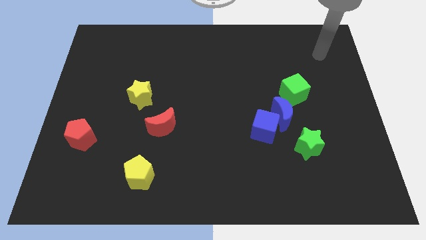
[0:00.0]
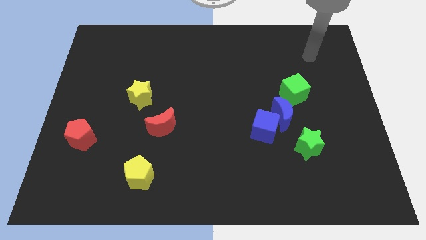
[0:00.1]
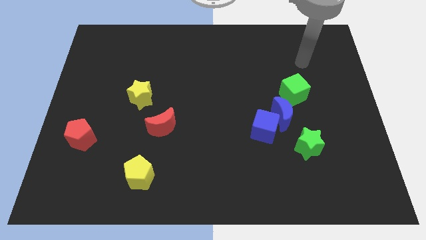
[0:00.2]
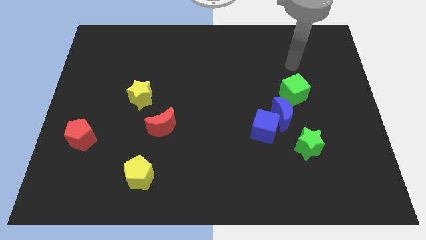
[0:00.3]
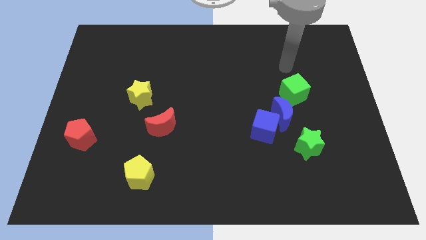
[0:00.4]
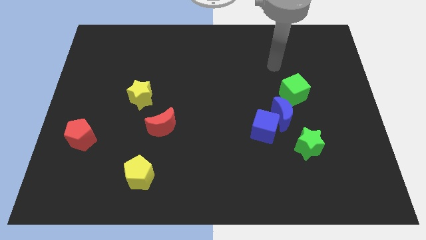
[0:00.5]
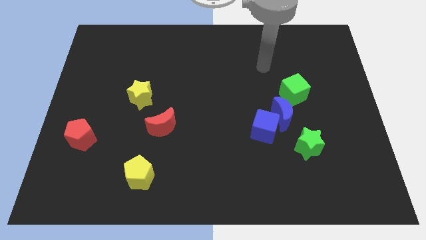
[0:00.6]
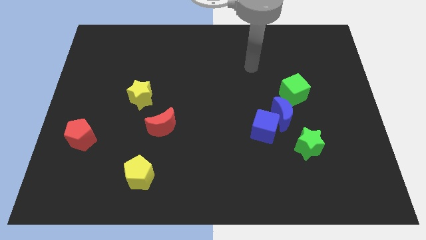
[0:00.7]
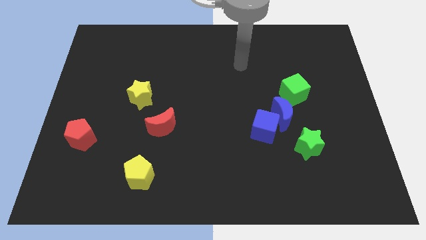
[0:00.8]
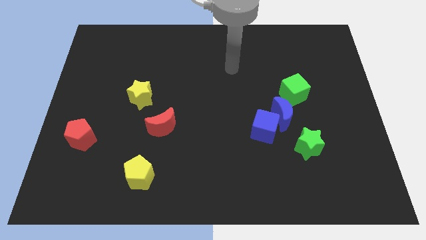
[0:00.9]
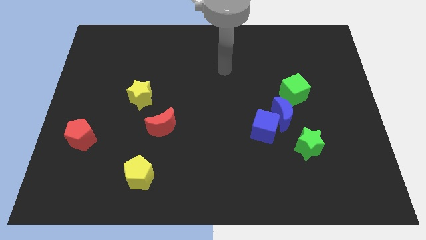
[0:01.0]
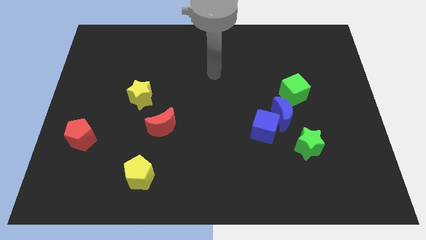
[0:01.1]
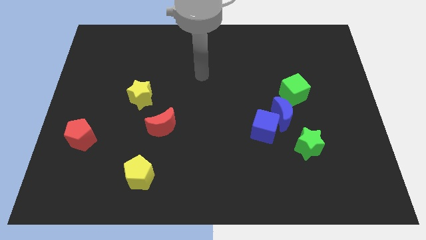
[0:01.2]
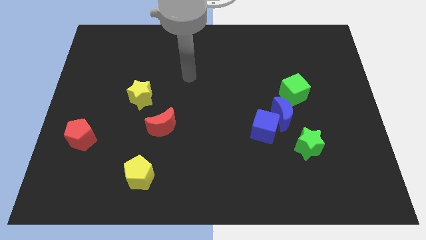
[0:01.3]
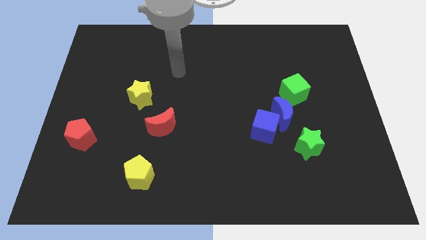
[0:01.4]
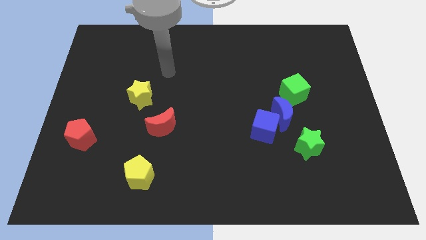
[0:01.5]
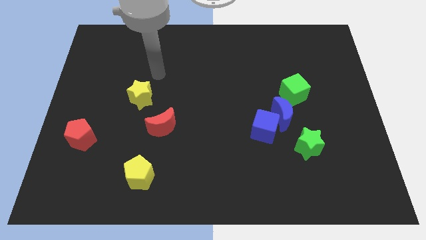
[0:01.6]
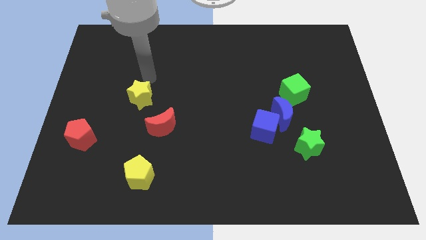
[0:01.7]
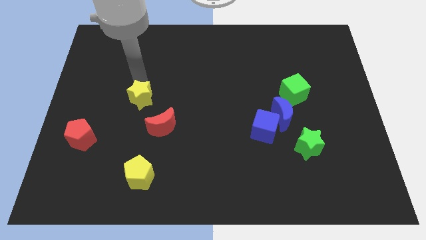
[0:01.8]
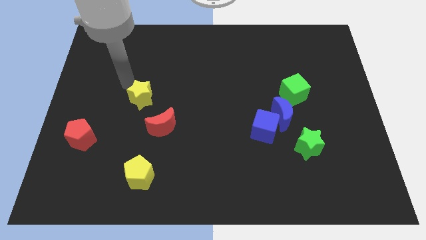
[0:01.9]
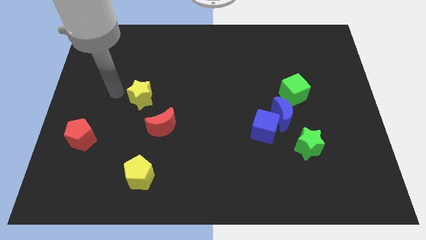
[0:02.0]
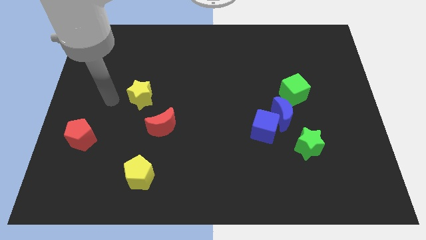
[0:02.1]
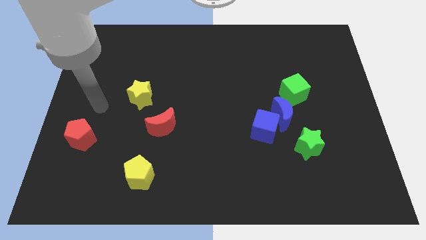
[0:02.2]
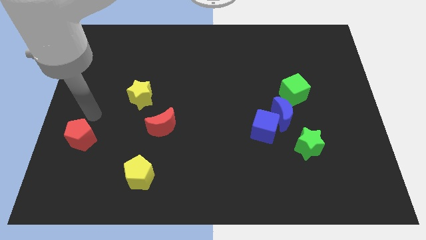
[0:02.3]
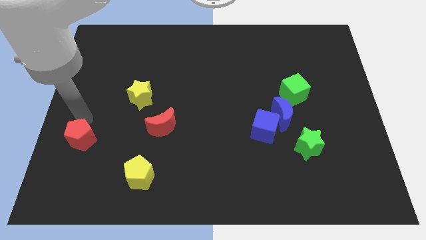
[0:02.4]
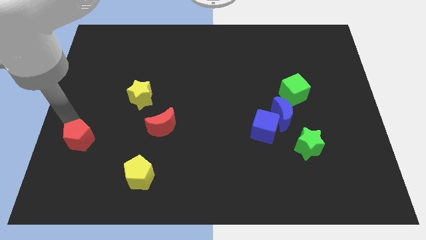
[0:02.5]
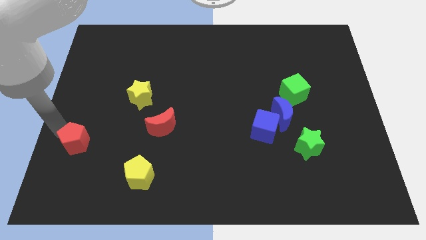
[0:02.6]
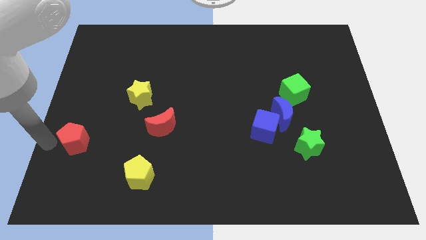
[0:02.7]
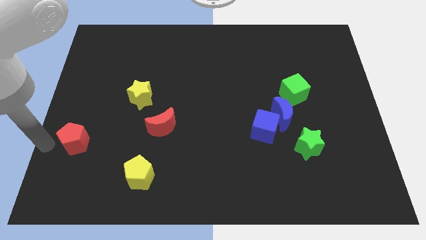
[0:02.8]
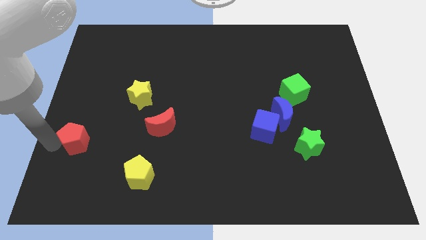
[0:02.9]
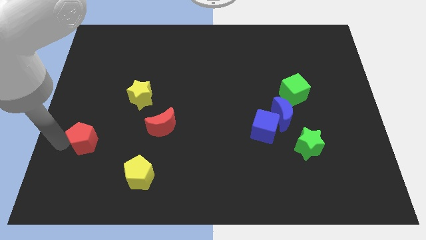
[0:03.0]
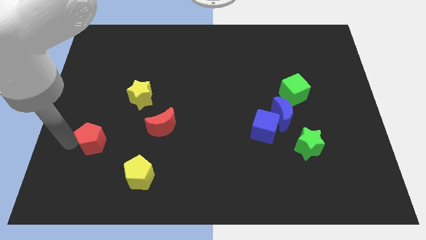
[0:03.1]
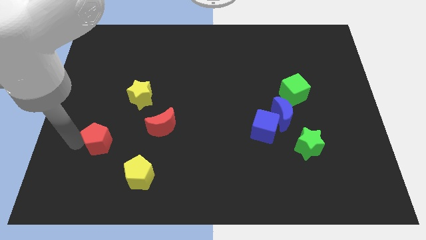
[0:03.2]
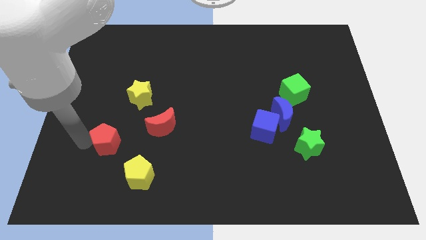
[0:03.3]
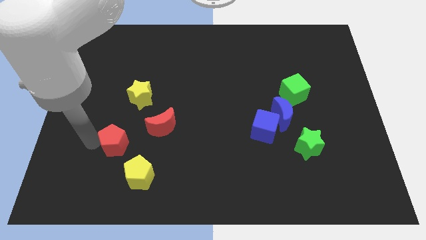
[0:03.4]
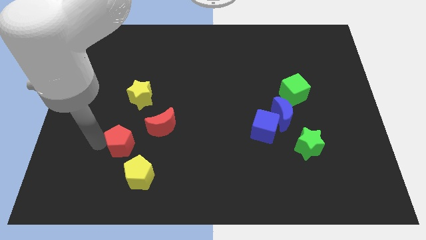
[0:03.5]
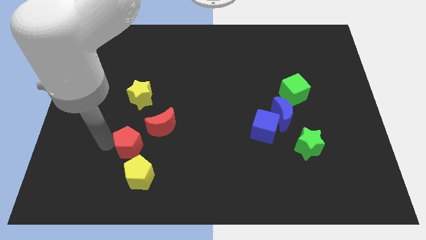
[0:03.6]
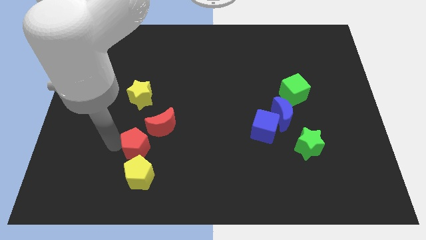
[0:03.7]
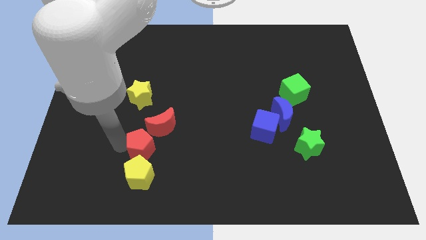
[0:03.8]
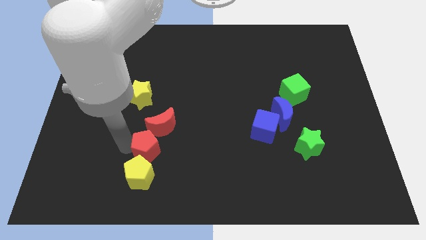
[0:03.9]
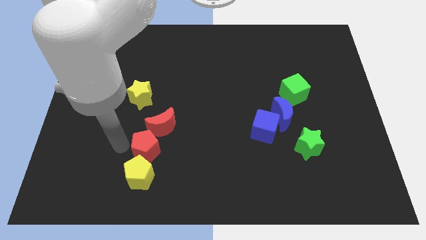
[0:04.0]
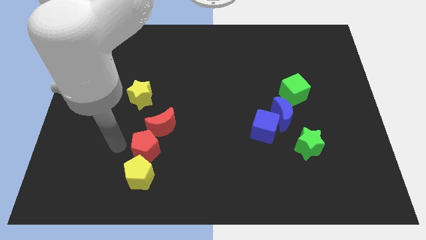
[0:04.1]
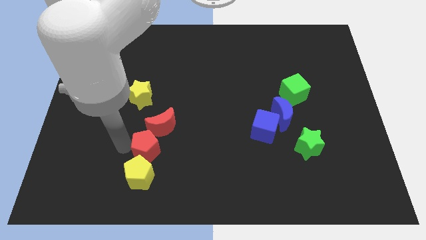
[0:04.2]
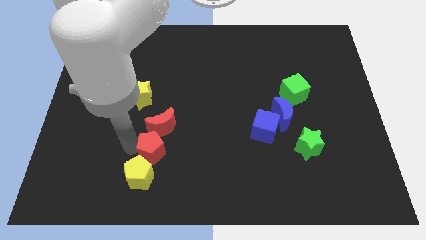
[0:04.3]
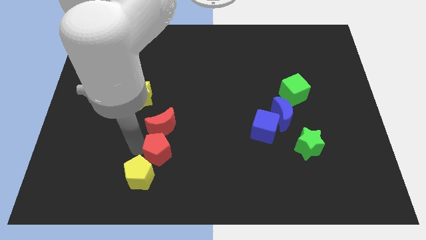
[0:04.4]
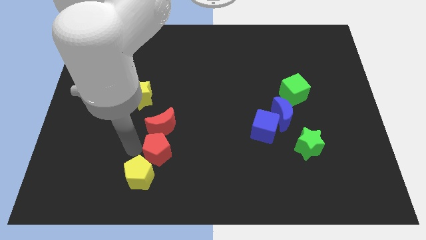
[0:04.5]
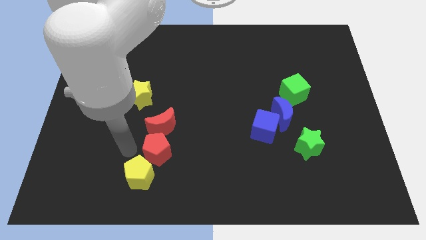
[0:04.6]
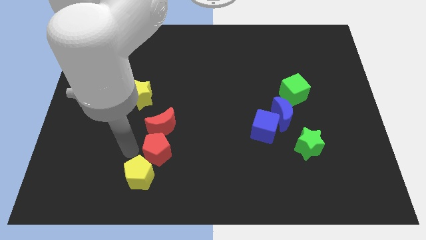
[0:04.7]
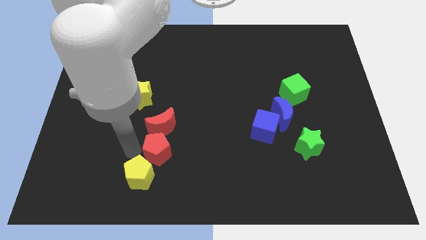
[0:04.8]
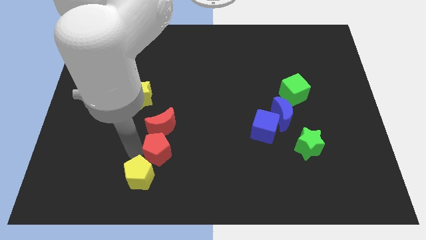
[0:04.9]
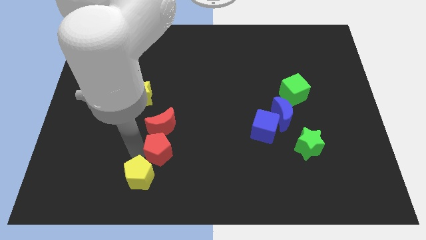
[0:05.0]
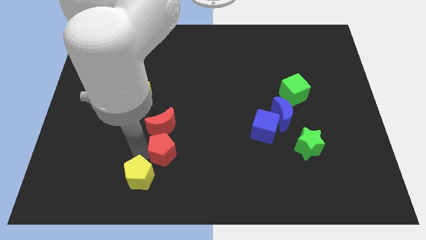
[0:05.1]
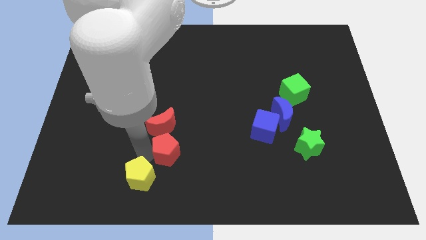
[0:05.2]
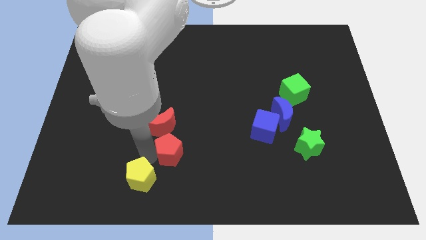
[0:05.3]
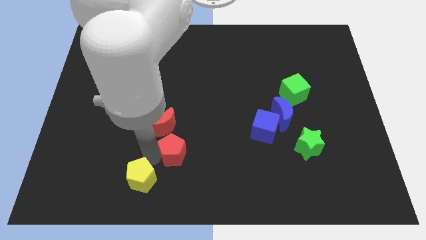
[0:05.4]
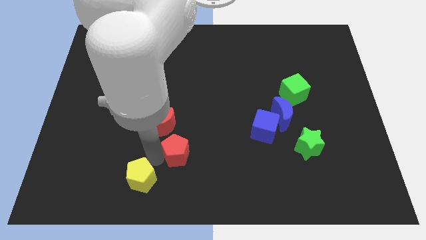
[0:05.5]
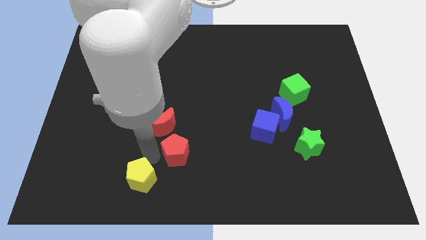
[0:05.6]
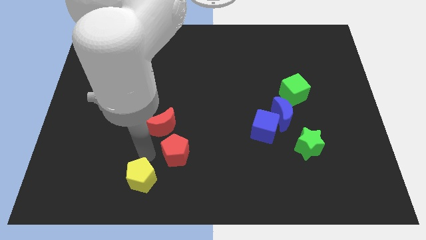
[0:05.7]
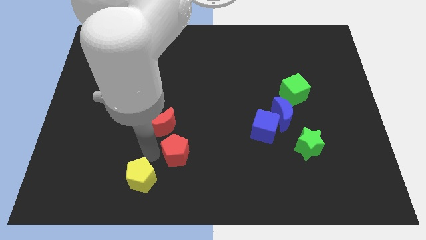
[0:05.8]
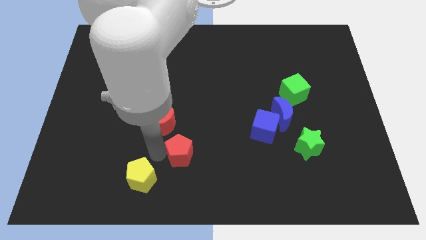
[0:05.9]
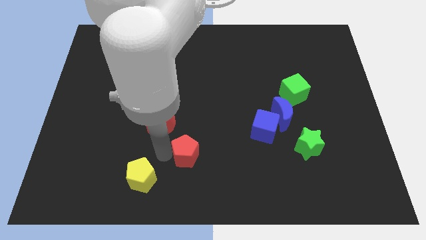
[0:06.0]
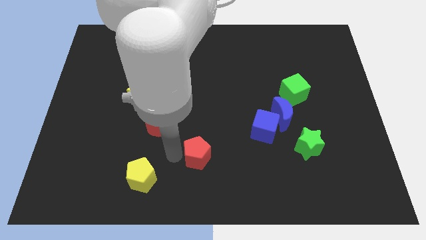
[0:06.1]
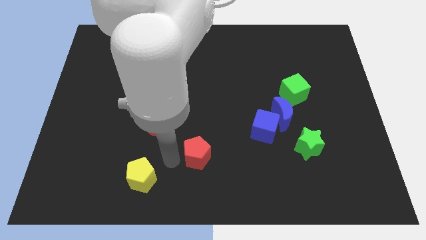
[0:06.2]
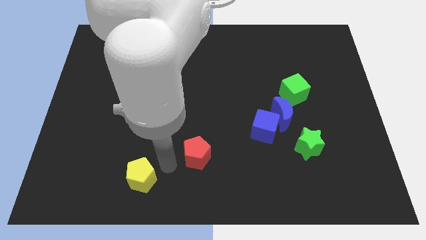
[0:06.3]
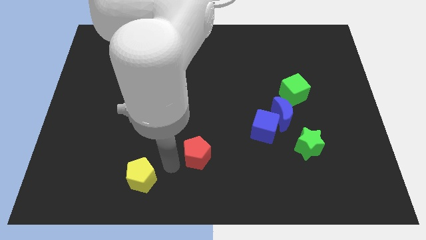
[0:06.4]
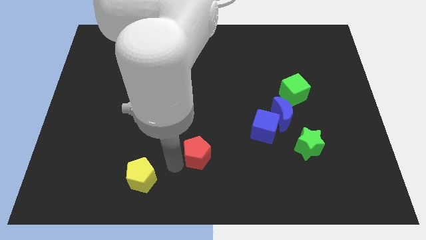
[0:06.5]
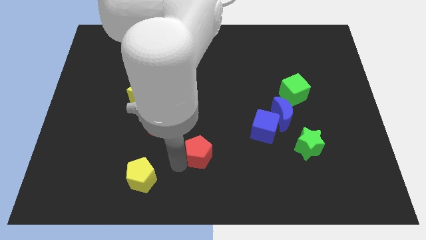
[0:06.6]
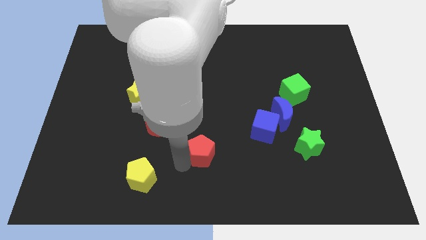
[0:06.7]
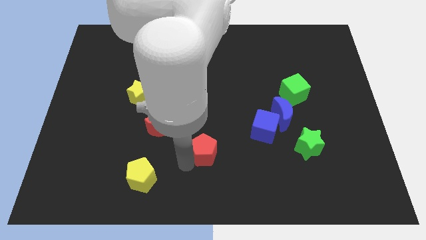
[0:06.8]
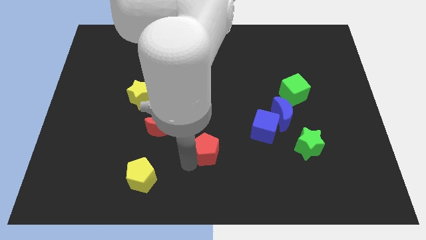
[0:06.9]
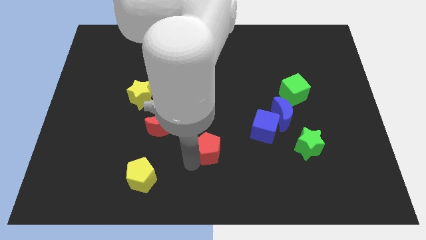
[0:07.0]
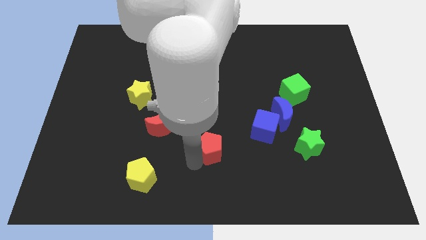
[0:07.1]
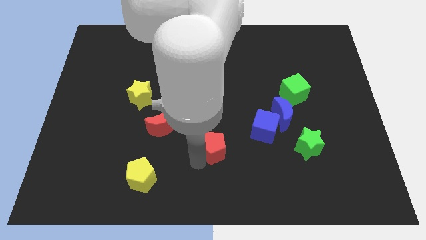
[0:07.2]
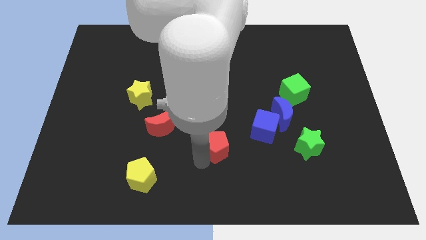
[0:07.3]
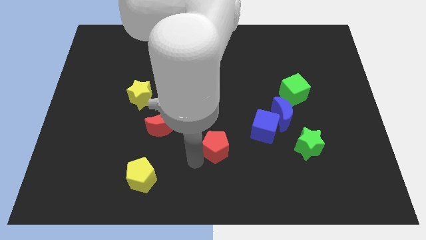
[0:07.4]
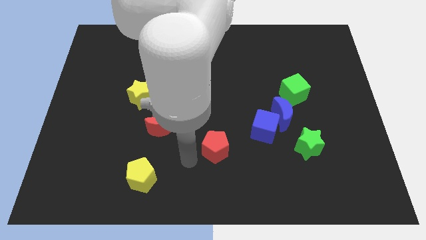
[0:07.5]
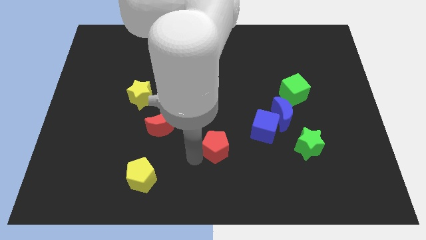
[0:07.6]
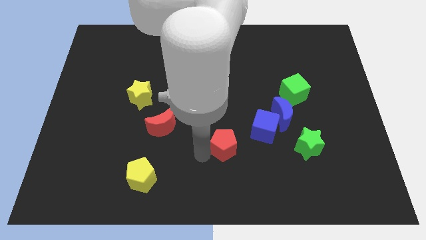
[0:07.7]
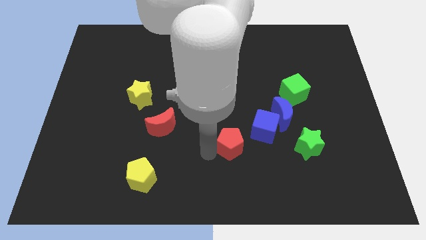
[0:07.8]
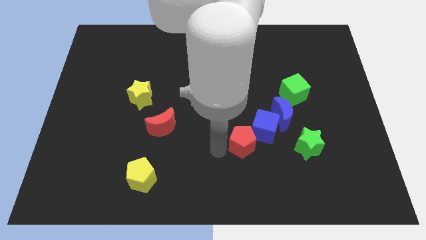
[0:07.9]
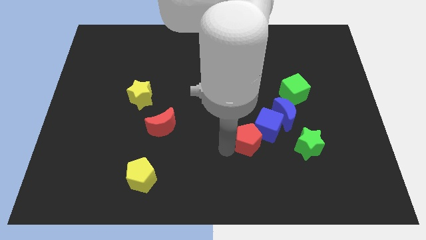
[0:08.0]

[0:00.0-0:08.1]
slide the red pentagon to the blue cube
